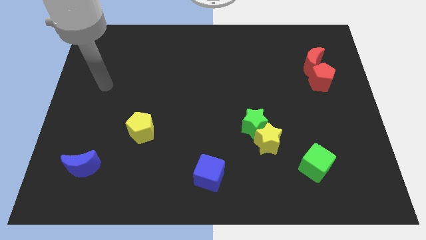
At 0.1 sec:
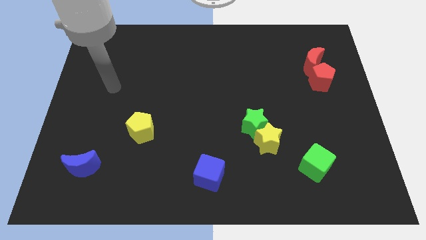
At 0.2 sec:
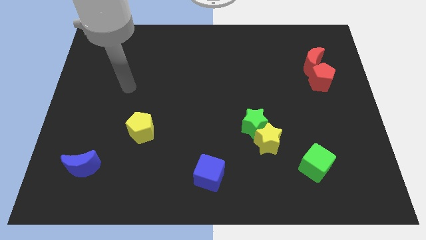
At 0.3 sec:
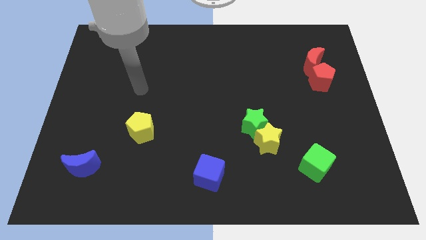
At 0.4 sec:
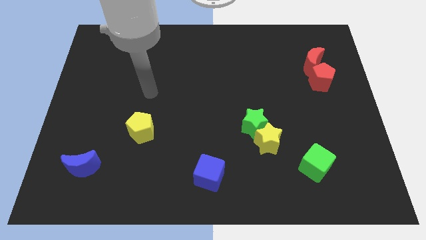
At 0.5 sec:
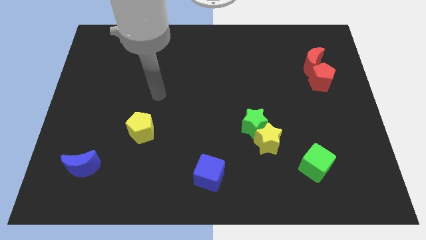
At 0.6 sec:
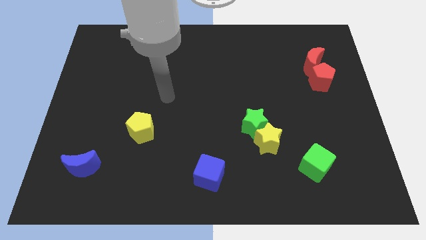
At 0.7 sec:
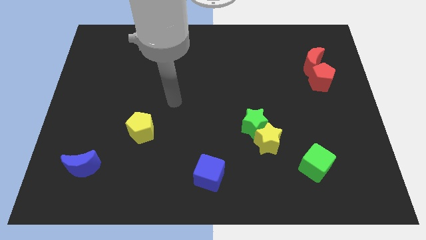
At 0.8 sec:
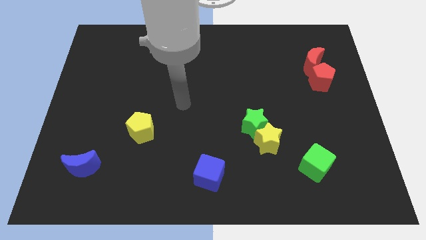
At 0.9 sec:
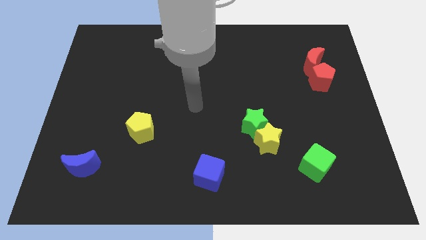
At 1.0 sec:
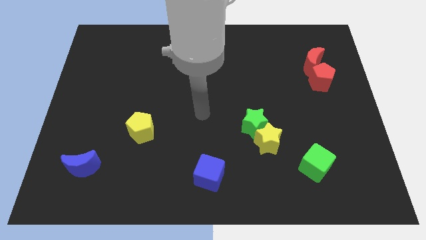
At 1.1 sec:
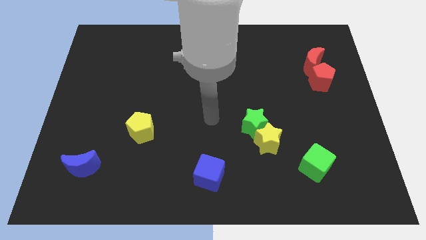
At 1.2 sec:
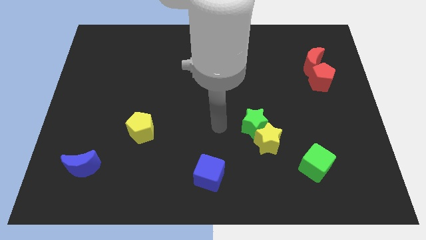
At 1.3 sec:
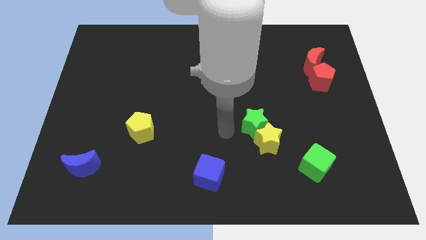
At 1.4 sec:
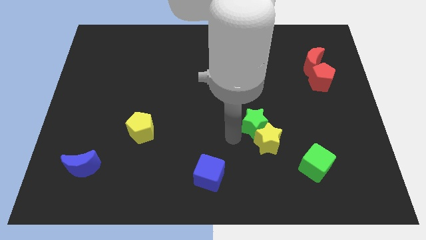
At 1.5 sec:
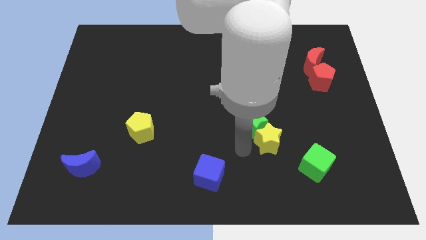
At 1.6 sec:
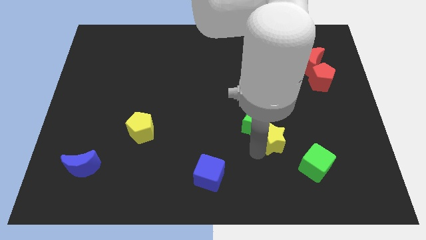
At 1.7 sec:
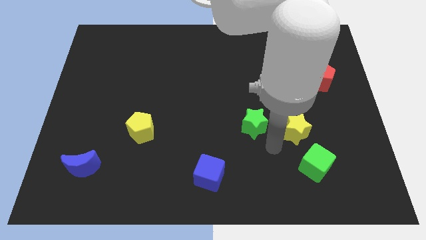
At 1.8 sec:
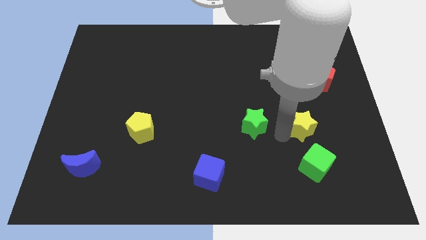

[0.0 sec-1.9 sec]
separate the green star from the yellow star

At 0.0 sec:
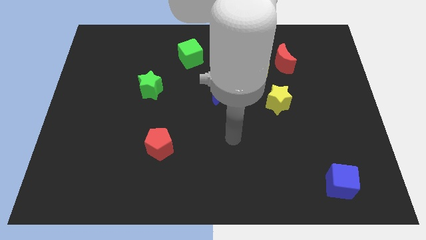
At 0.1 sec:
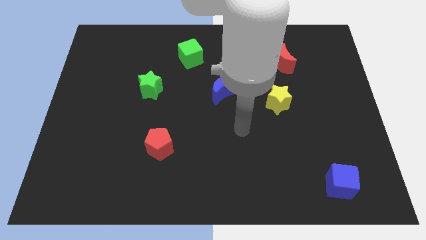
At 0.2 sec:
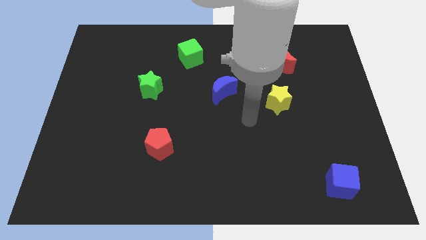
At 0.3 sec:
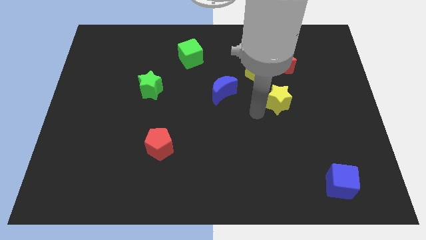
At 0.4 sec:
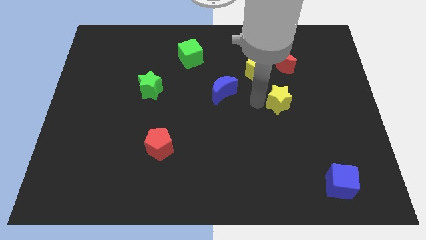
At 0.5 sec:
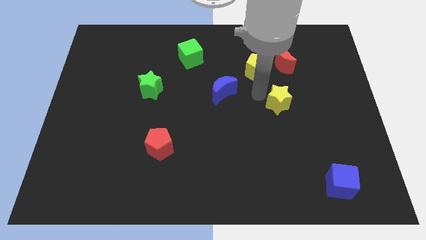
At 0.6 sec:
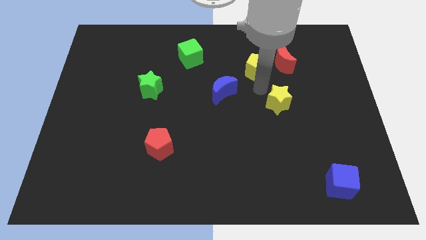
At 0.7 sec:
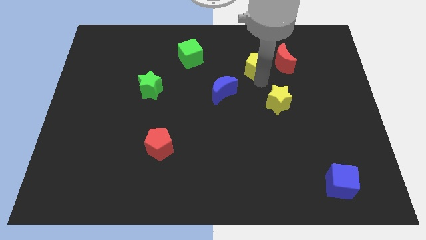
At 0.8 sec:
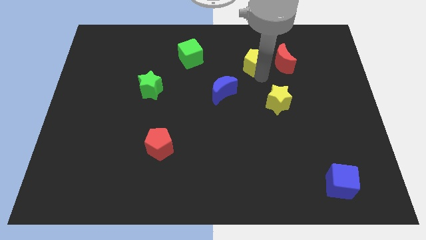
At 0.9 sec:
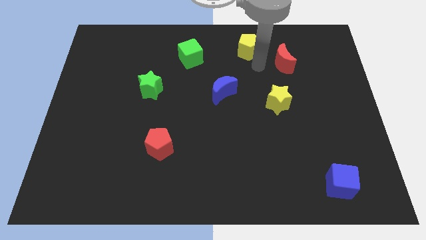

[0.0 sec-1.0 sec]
separate the red moon from the yellow pentagon

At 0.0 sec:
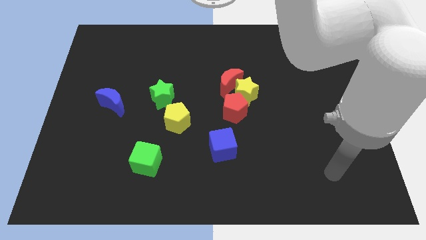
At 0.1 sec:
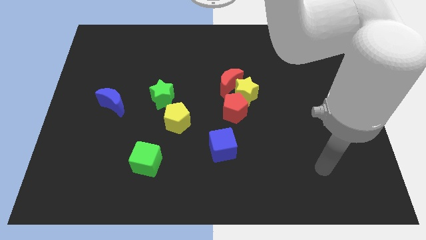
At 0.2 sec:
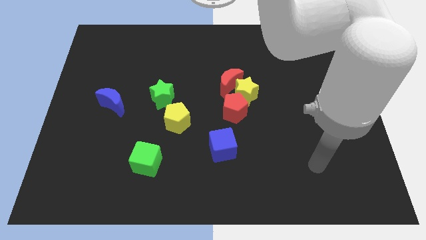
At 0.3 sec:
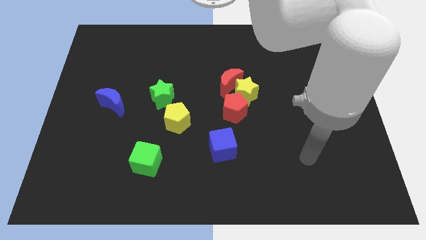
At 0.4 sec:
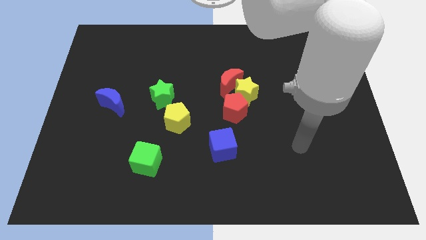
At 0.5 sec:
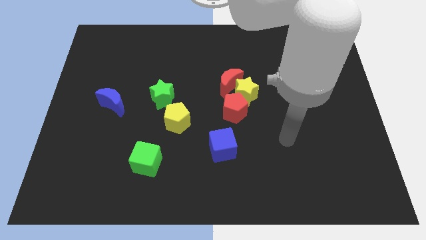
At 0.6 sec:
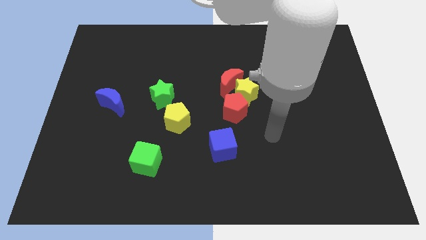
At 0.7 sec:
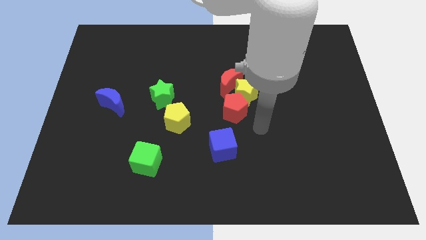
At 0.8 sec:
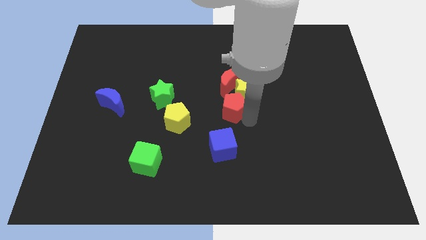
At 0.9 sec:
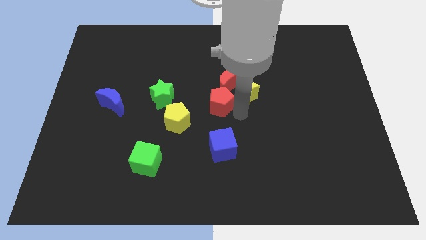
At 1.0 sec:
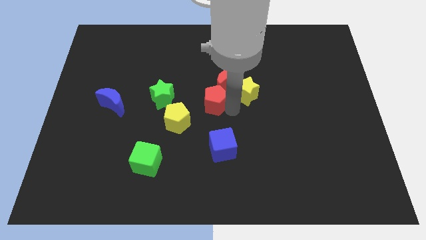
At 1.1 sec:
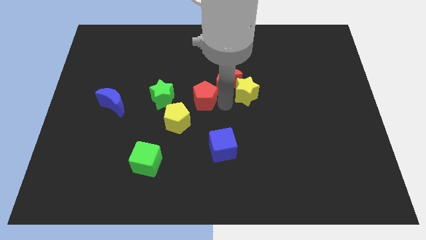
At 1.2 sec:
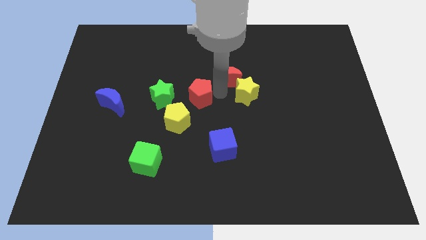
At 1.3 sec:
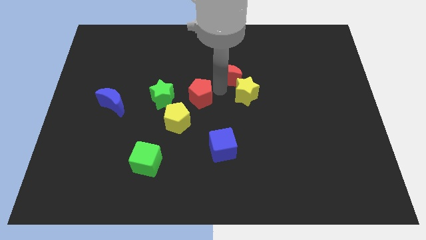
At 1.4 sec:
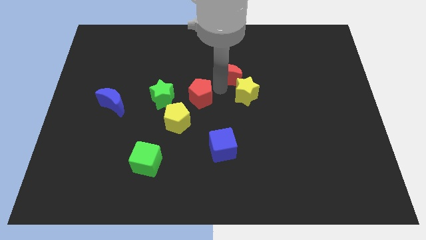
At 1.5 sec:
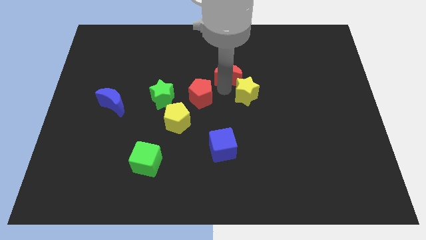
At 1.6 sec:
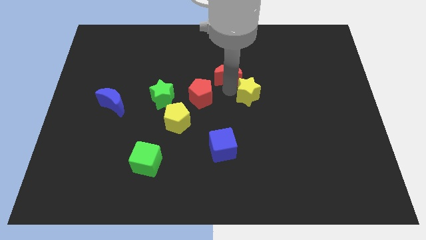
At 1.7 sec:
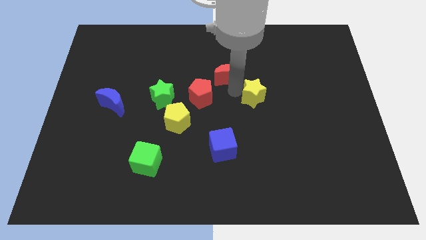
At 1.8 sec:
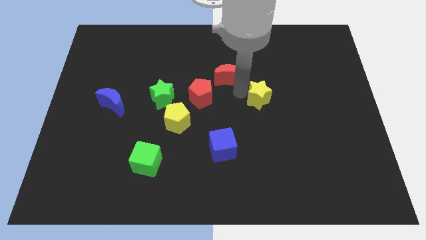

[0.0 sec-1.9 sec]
separate the yellow star from the red moon and red pentagon

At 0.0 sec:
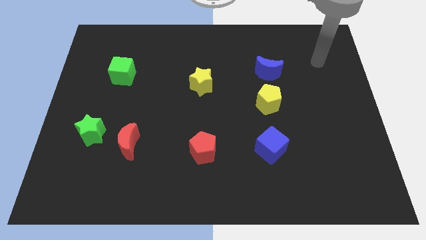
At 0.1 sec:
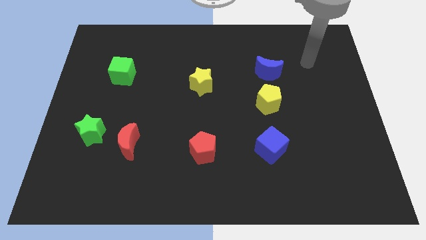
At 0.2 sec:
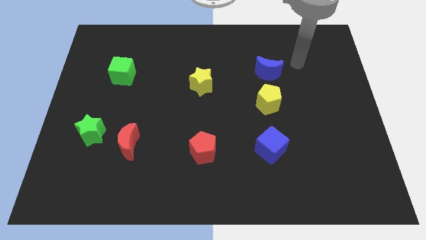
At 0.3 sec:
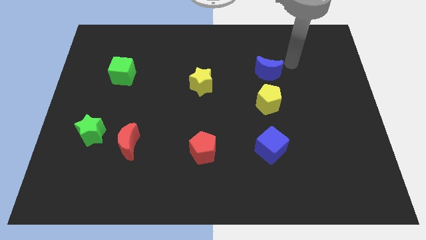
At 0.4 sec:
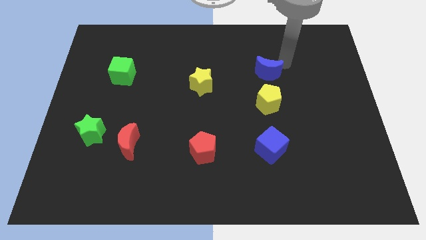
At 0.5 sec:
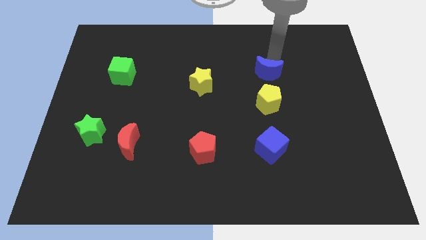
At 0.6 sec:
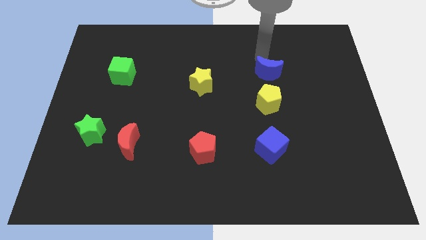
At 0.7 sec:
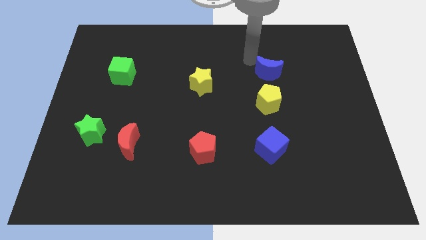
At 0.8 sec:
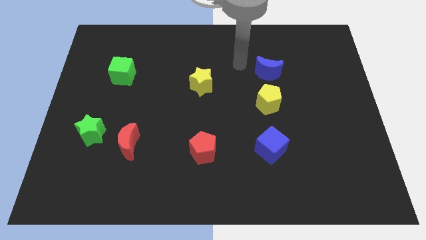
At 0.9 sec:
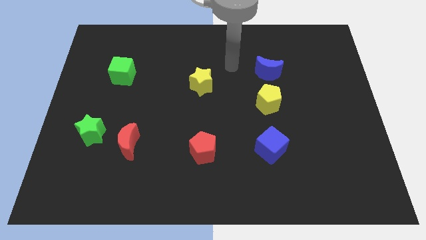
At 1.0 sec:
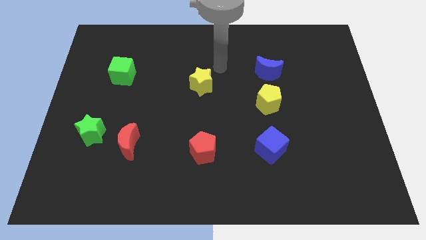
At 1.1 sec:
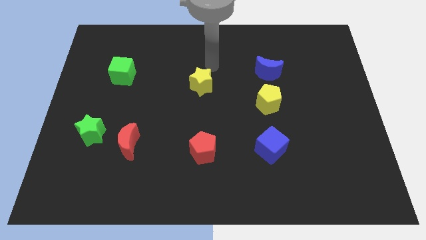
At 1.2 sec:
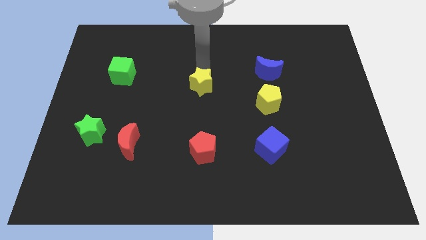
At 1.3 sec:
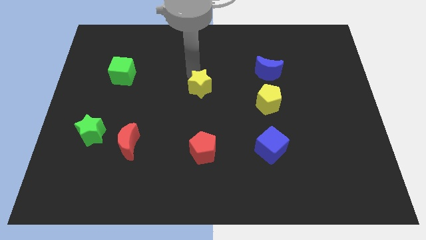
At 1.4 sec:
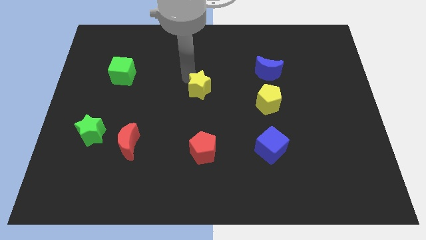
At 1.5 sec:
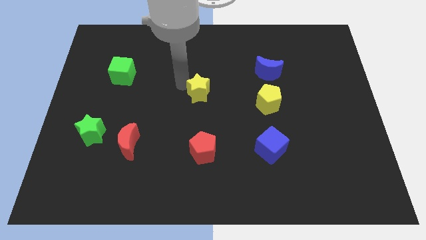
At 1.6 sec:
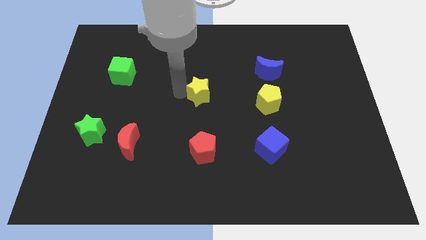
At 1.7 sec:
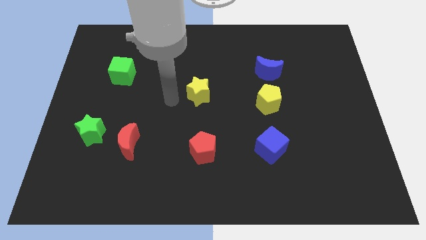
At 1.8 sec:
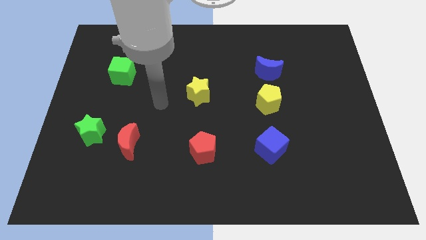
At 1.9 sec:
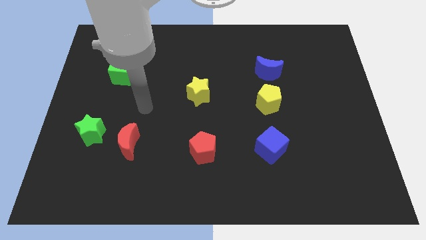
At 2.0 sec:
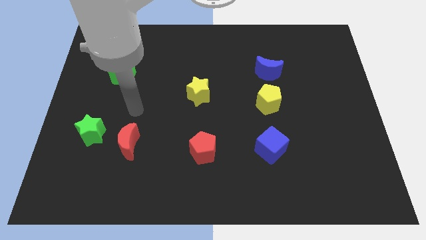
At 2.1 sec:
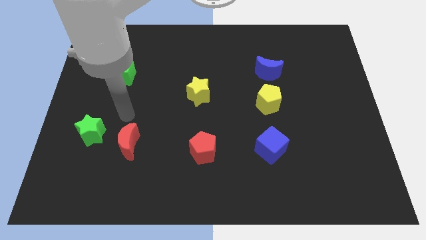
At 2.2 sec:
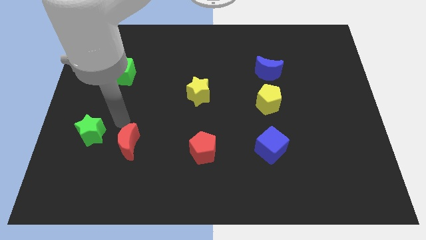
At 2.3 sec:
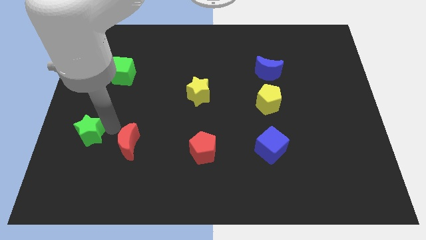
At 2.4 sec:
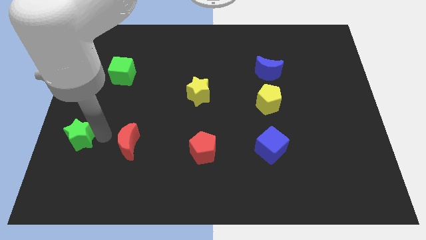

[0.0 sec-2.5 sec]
separate the red moon from the green star

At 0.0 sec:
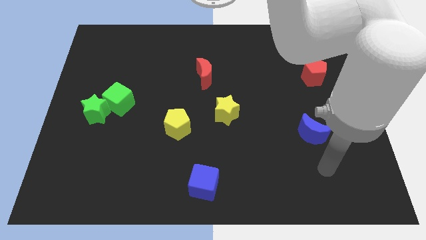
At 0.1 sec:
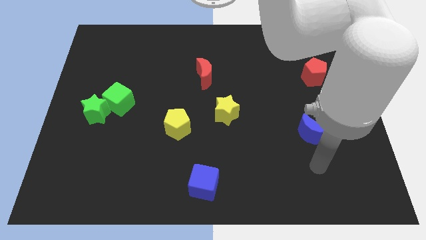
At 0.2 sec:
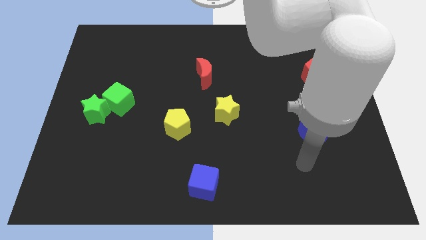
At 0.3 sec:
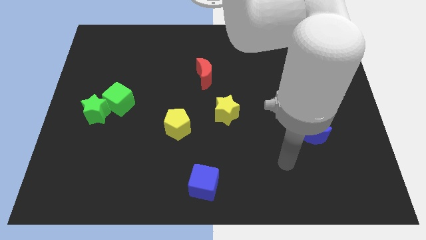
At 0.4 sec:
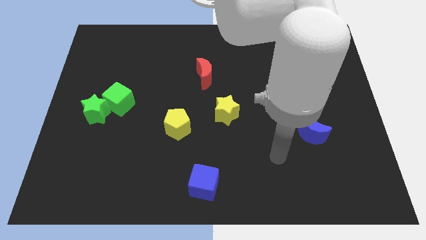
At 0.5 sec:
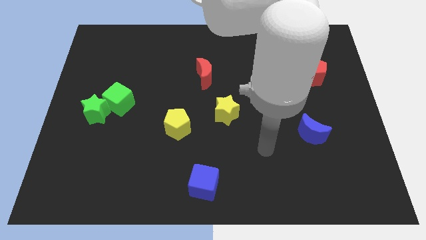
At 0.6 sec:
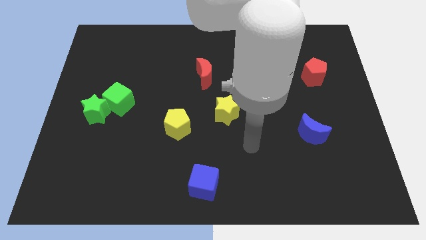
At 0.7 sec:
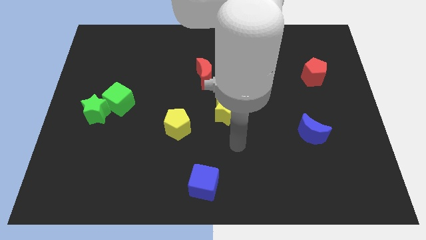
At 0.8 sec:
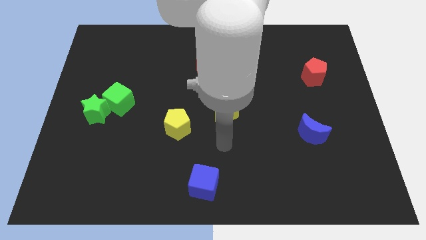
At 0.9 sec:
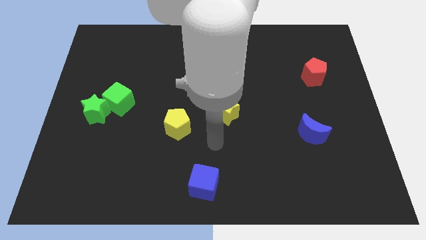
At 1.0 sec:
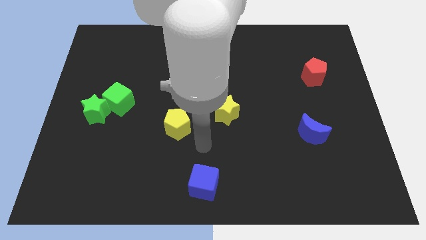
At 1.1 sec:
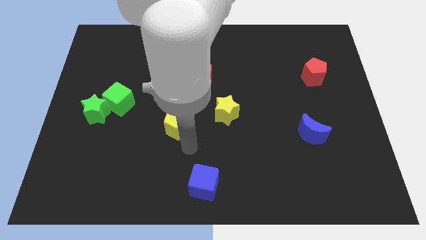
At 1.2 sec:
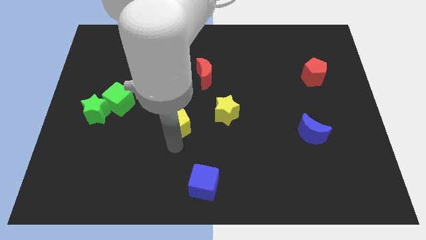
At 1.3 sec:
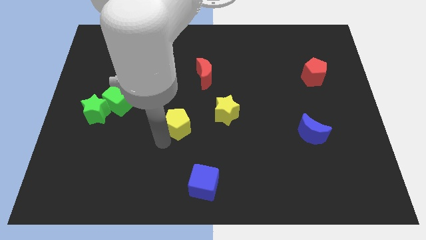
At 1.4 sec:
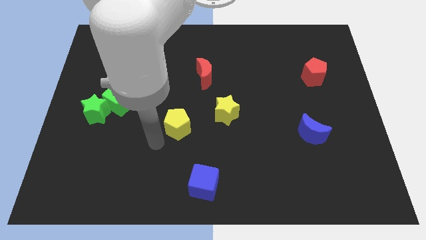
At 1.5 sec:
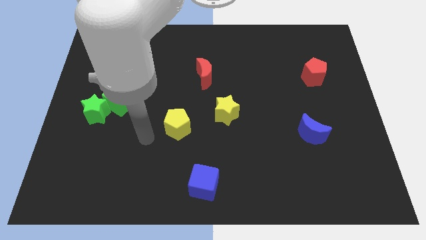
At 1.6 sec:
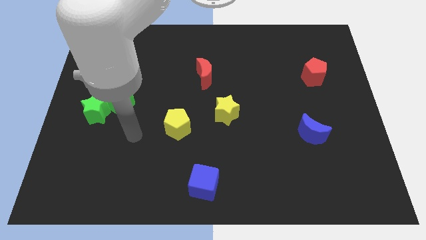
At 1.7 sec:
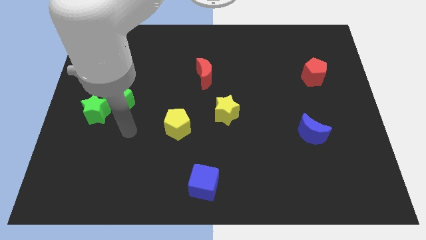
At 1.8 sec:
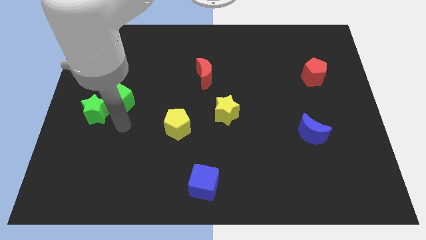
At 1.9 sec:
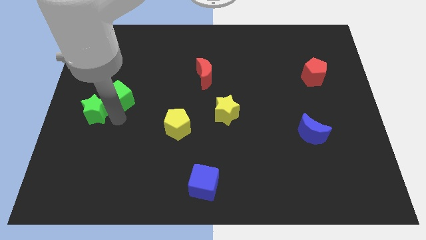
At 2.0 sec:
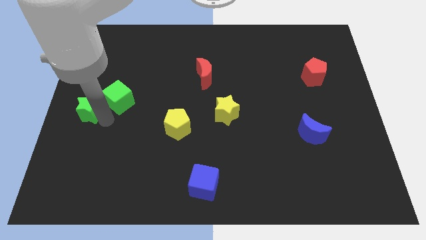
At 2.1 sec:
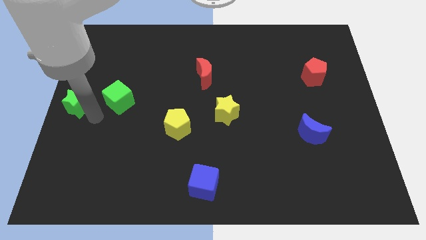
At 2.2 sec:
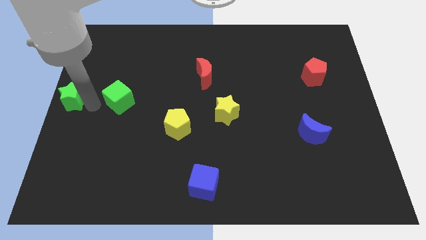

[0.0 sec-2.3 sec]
pull the green cube apart from the green star
